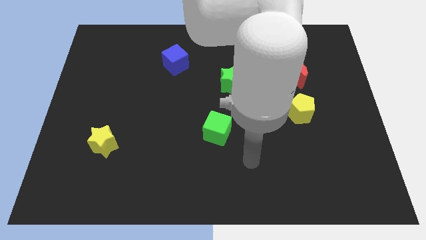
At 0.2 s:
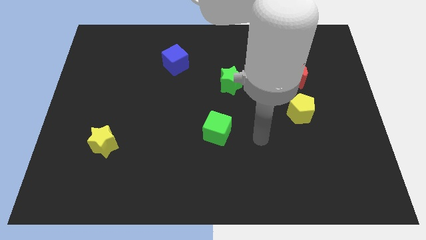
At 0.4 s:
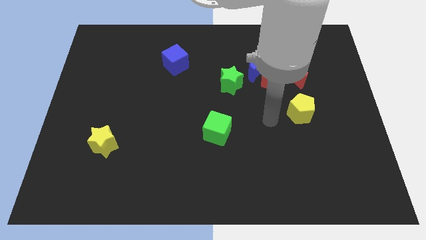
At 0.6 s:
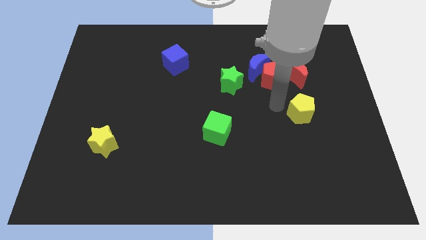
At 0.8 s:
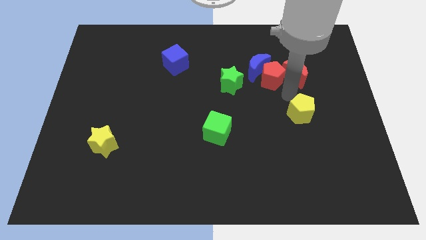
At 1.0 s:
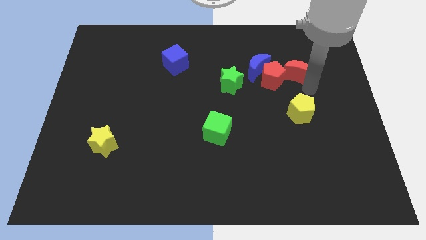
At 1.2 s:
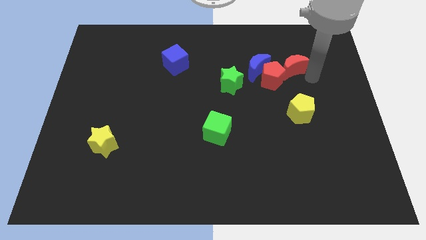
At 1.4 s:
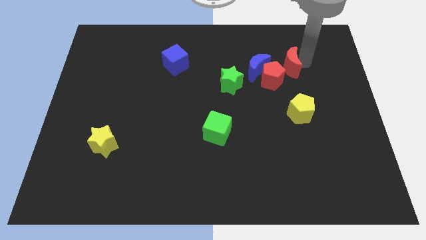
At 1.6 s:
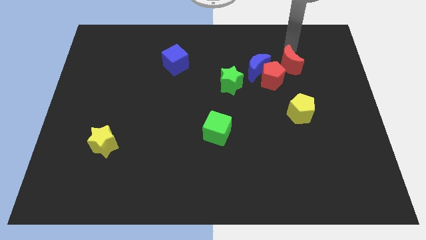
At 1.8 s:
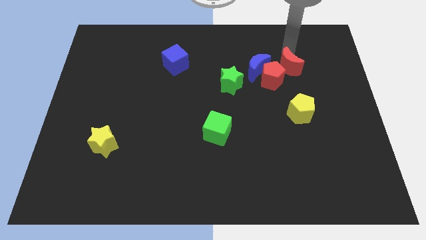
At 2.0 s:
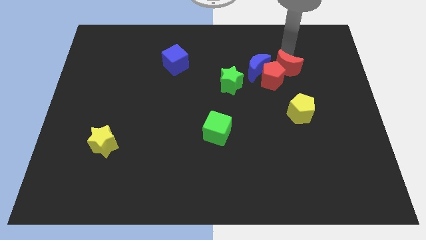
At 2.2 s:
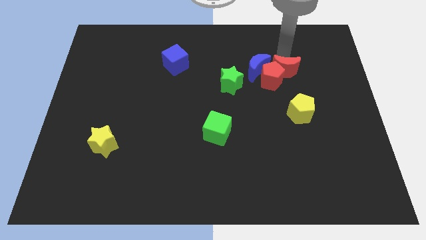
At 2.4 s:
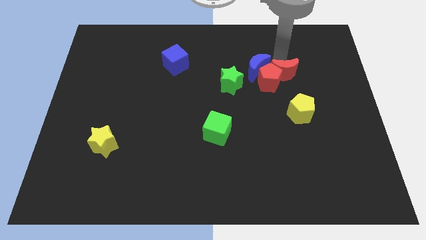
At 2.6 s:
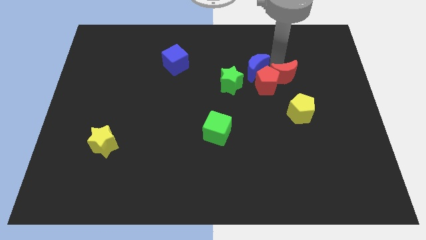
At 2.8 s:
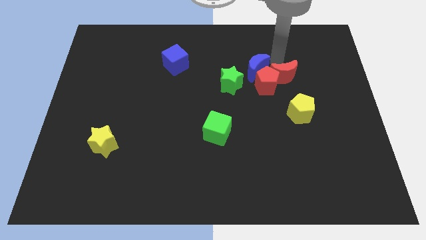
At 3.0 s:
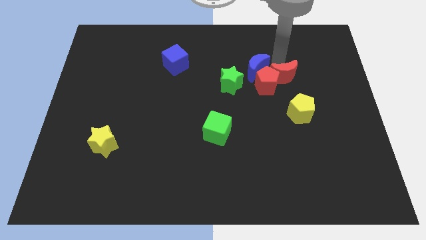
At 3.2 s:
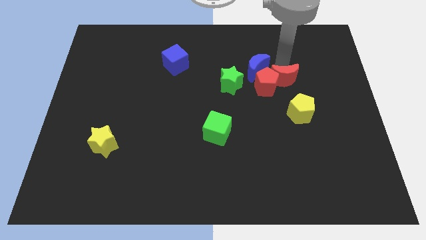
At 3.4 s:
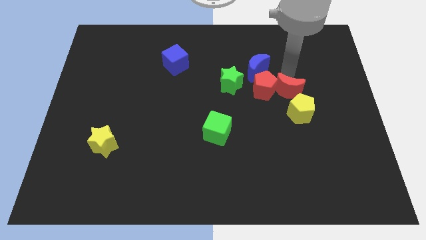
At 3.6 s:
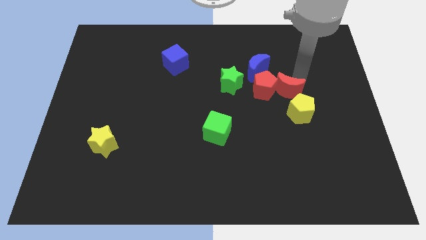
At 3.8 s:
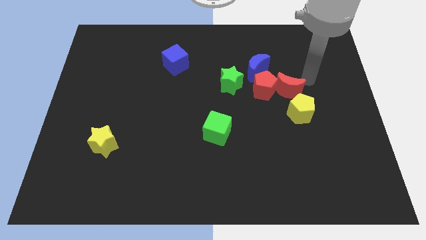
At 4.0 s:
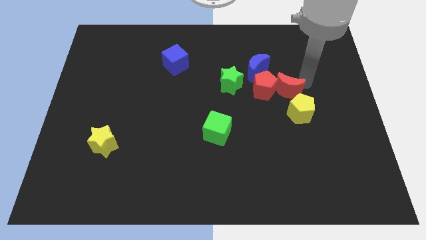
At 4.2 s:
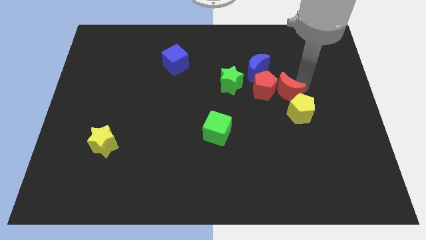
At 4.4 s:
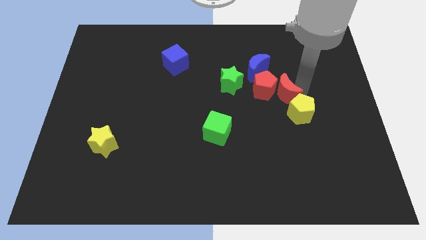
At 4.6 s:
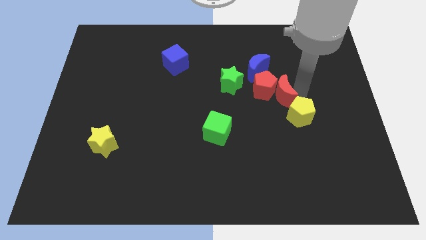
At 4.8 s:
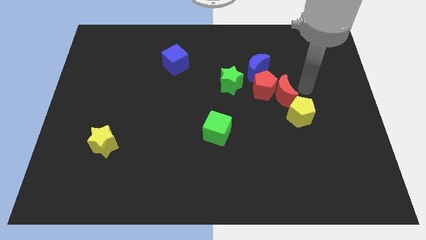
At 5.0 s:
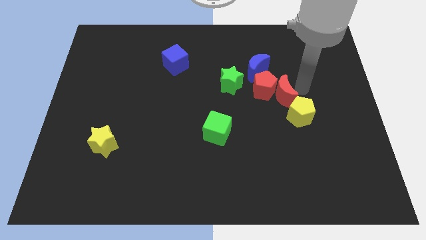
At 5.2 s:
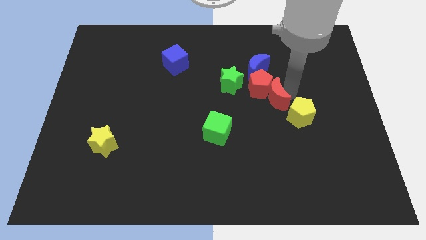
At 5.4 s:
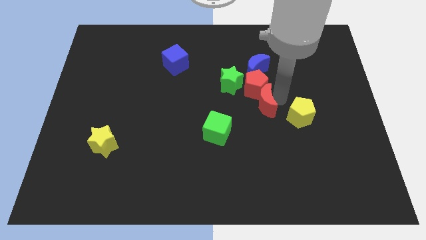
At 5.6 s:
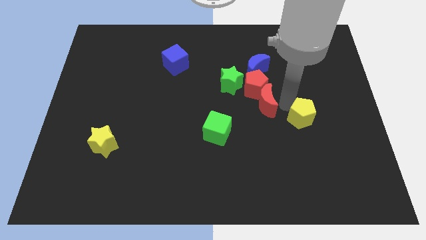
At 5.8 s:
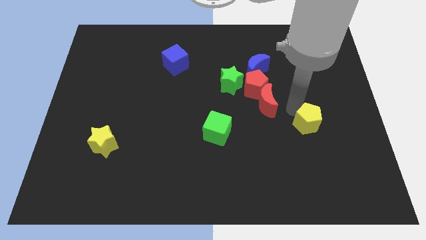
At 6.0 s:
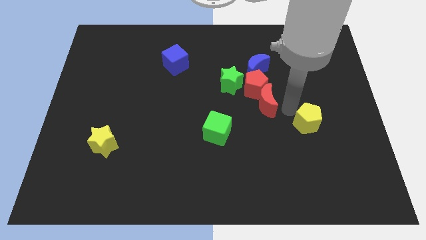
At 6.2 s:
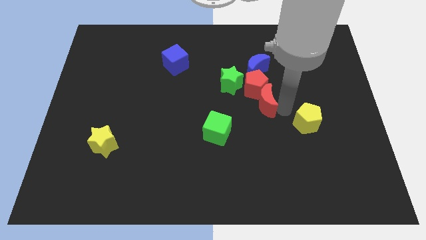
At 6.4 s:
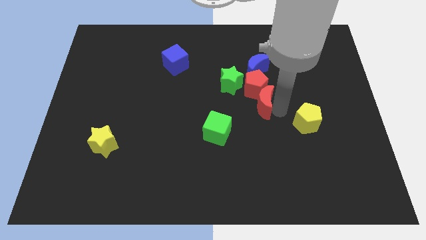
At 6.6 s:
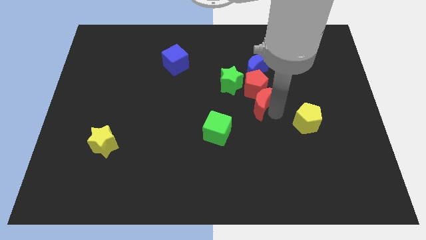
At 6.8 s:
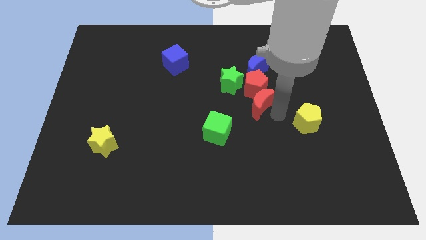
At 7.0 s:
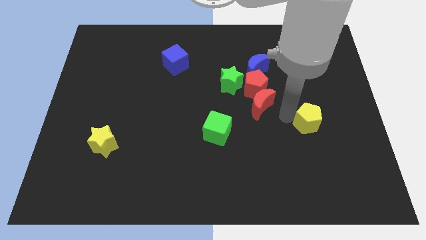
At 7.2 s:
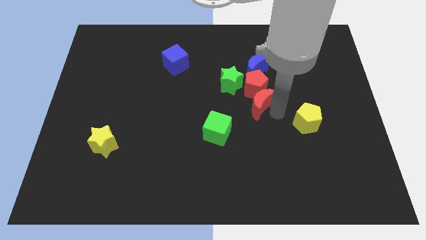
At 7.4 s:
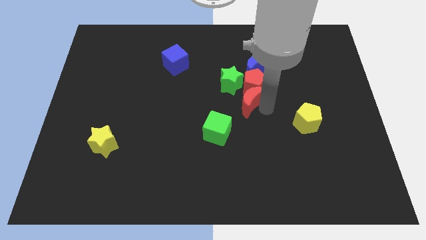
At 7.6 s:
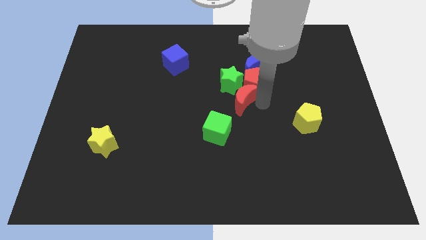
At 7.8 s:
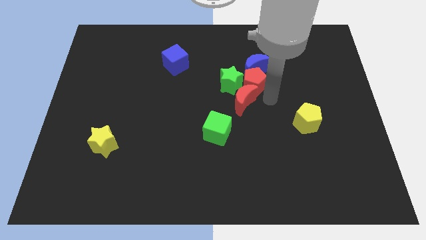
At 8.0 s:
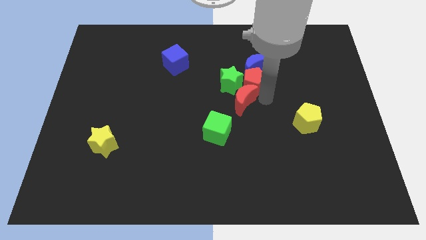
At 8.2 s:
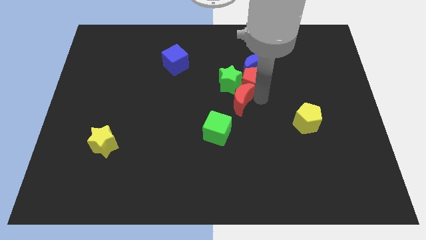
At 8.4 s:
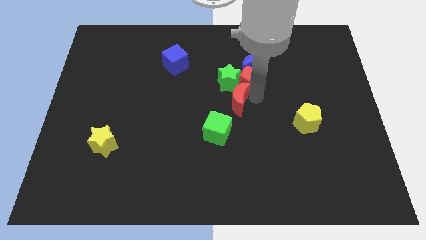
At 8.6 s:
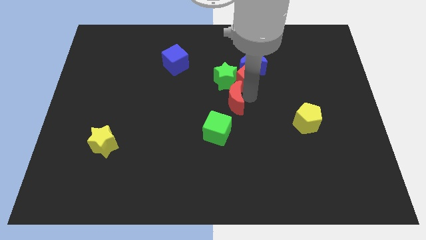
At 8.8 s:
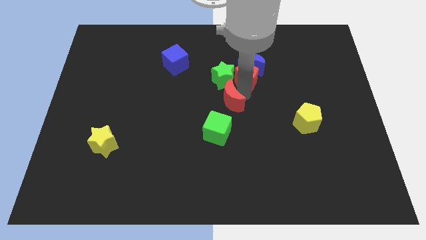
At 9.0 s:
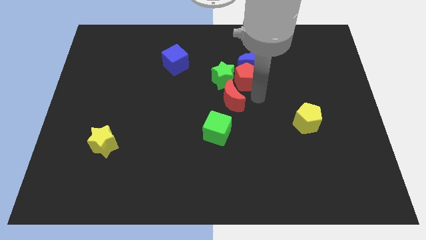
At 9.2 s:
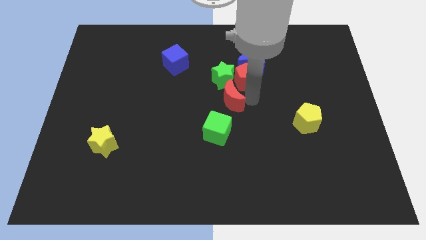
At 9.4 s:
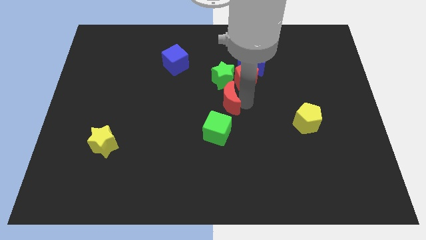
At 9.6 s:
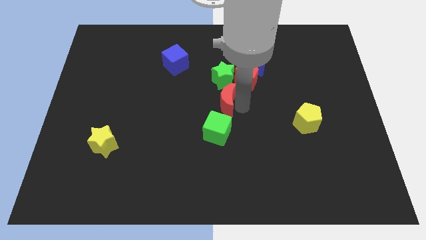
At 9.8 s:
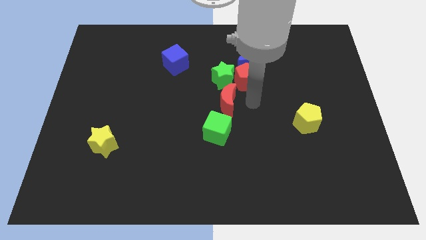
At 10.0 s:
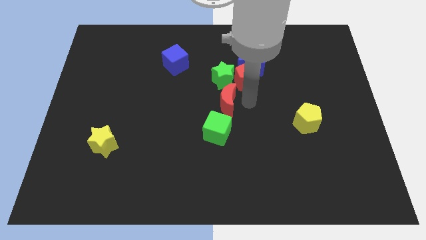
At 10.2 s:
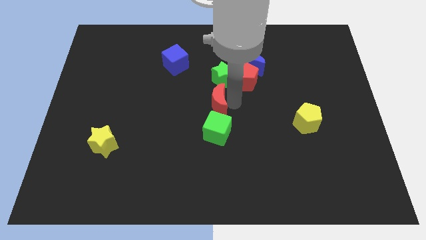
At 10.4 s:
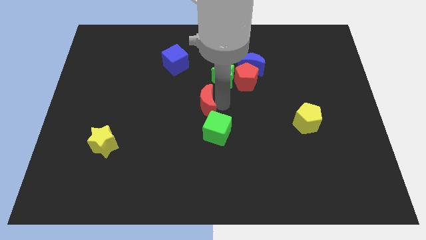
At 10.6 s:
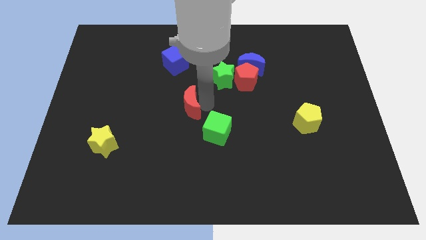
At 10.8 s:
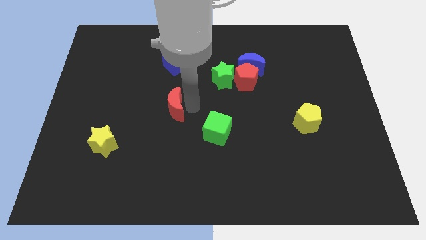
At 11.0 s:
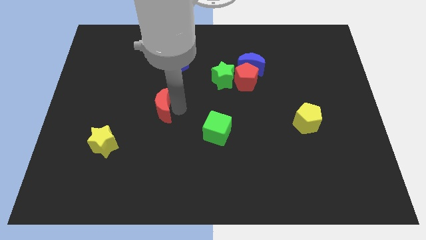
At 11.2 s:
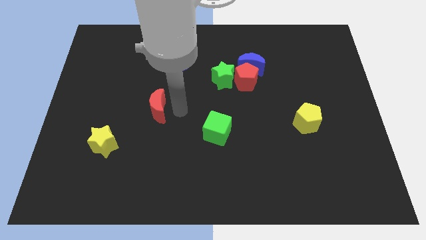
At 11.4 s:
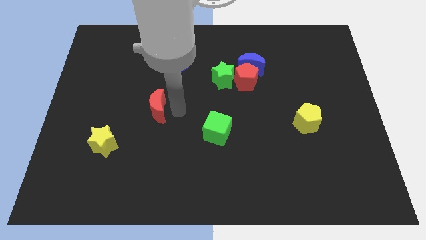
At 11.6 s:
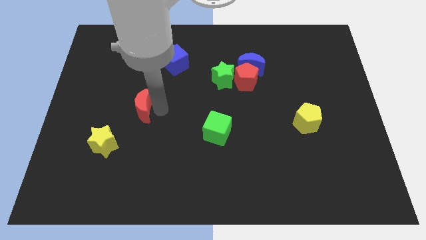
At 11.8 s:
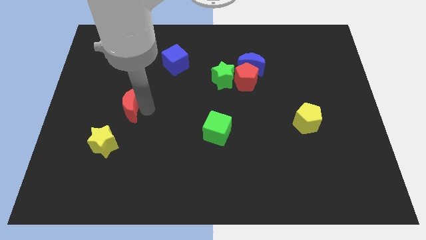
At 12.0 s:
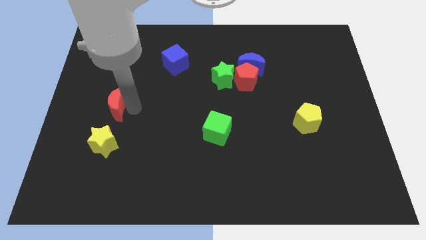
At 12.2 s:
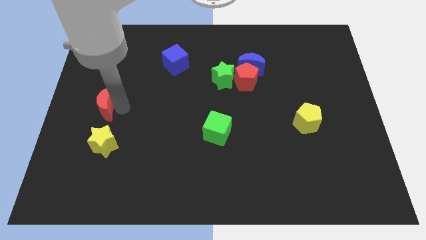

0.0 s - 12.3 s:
move the red moon to the center left
